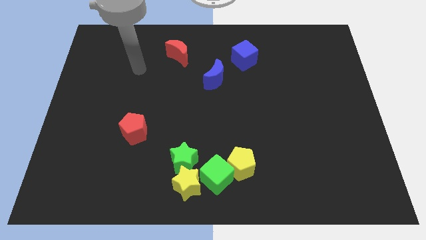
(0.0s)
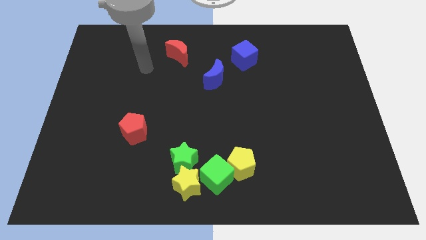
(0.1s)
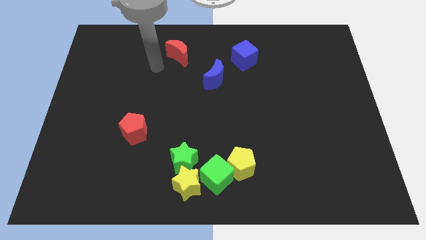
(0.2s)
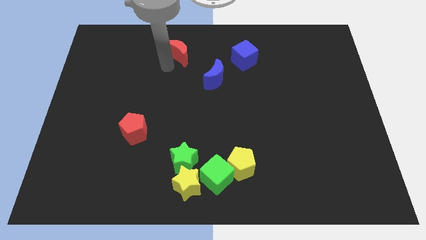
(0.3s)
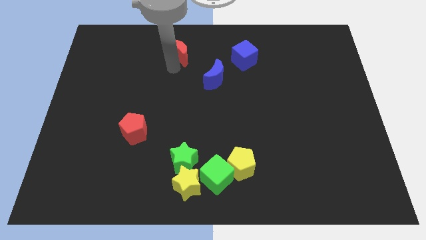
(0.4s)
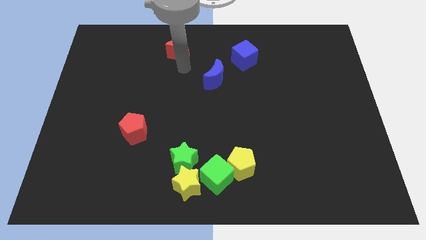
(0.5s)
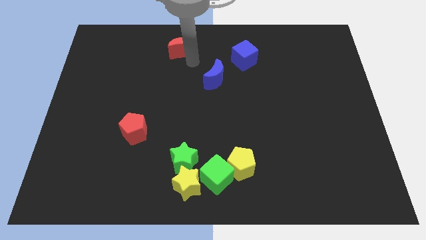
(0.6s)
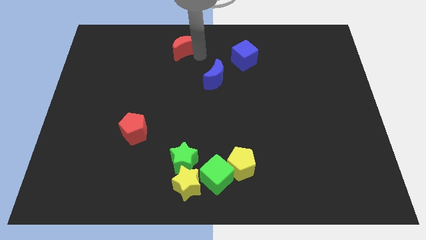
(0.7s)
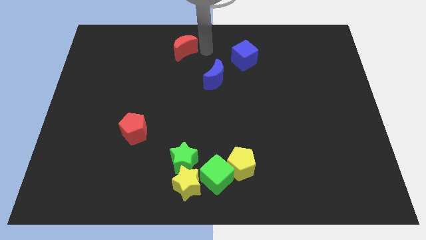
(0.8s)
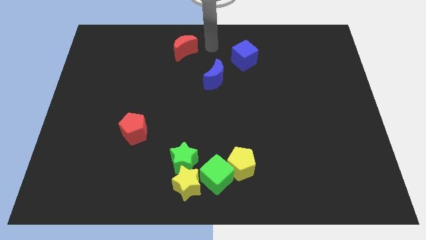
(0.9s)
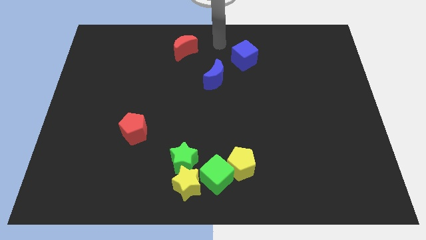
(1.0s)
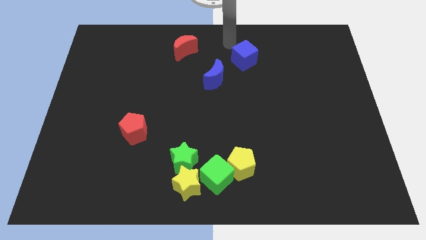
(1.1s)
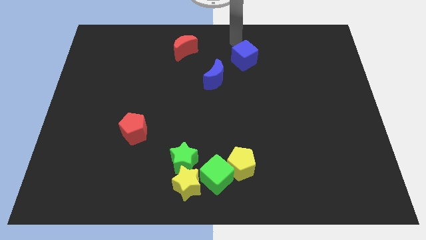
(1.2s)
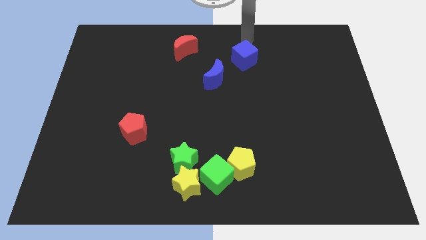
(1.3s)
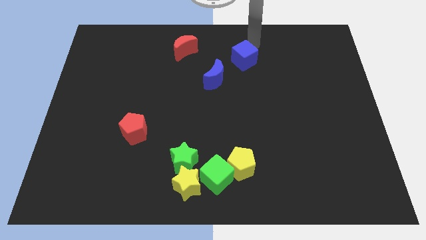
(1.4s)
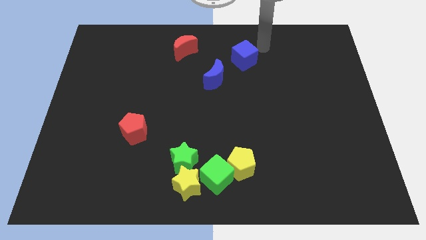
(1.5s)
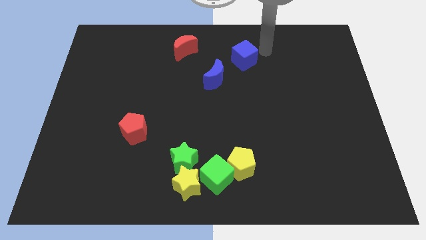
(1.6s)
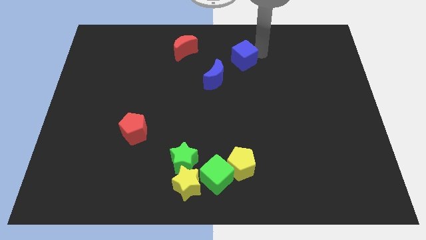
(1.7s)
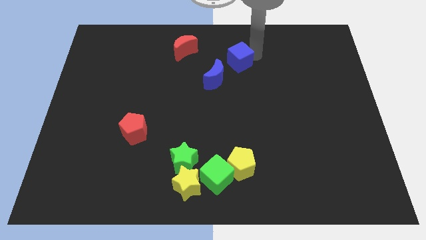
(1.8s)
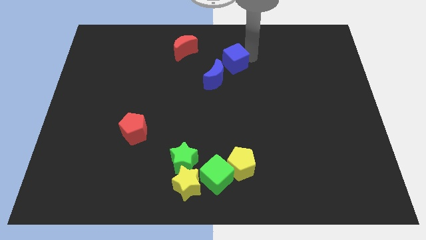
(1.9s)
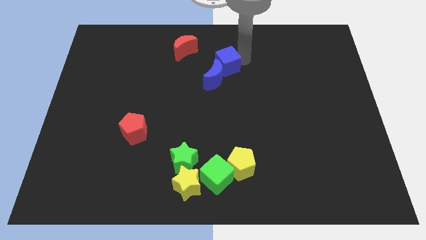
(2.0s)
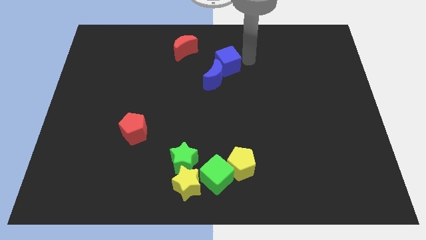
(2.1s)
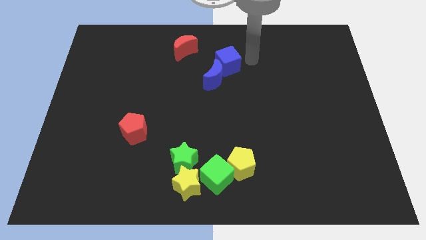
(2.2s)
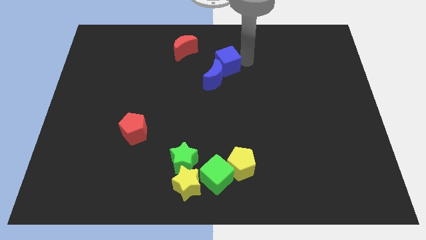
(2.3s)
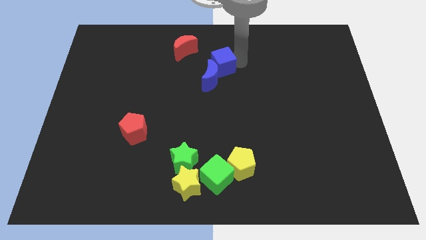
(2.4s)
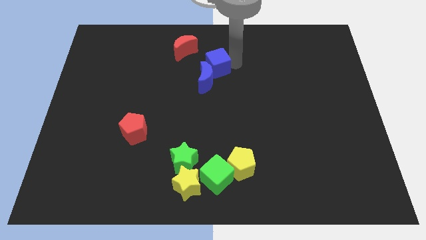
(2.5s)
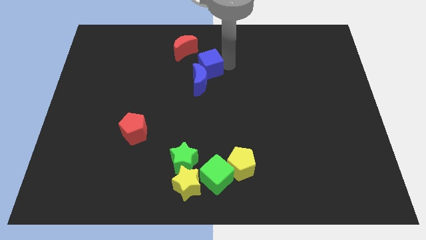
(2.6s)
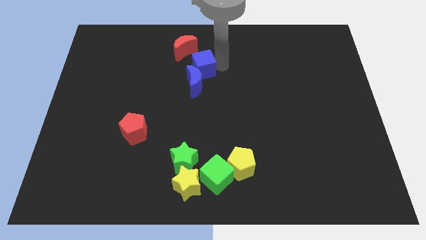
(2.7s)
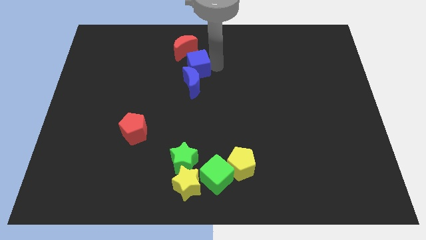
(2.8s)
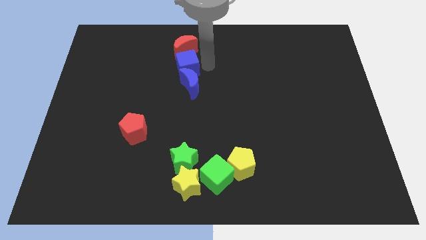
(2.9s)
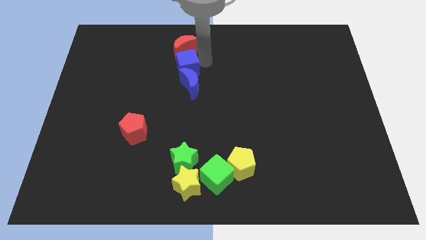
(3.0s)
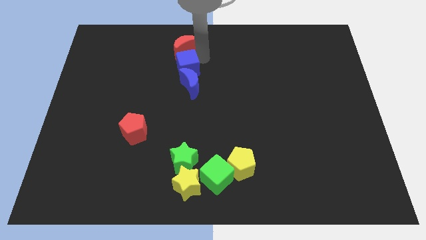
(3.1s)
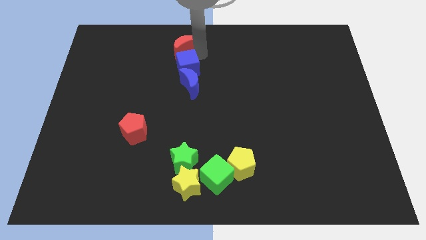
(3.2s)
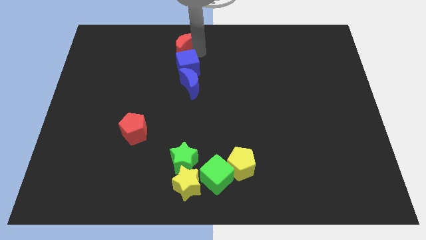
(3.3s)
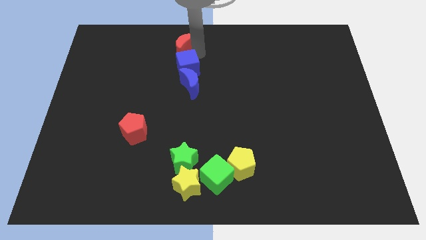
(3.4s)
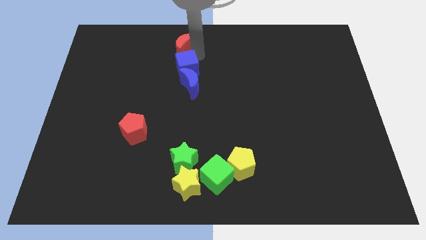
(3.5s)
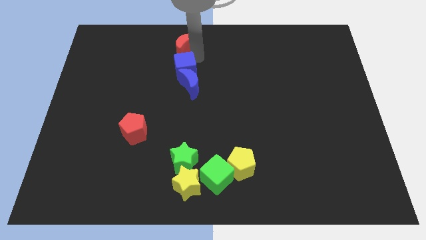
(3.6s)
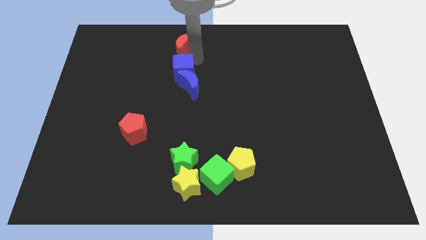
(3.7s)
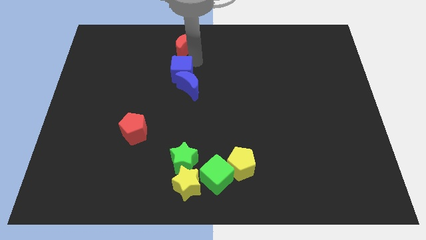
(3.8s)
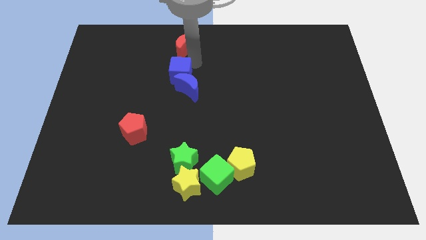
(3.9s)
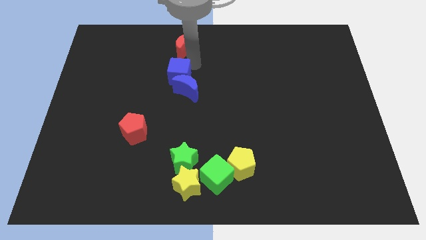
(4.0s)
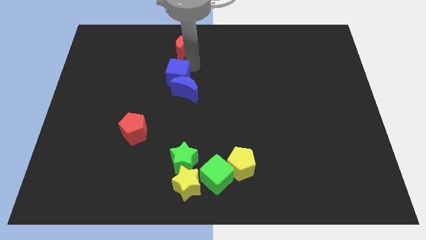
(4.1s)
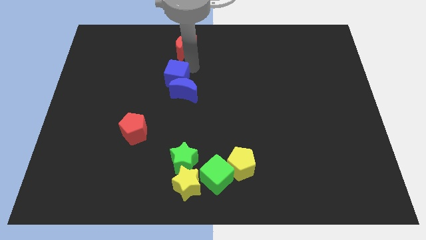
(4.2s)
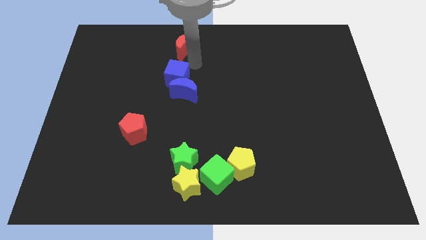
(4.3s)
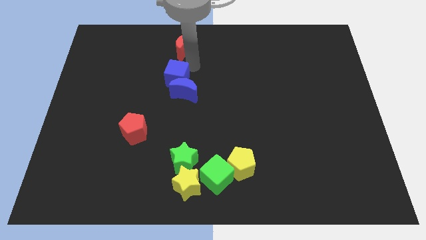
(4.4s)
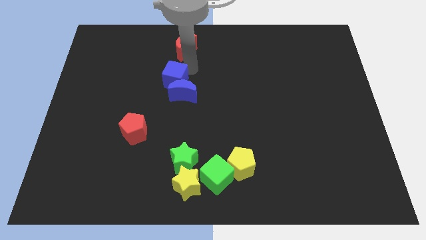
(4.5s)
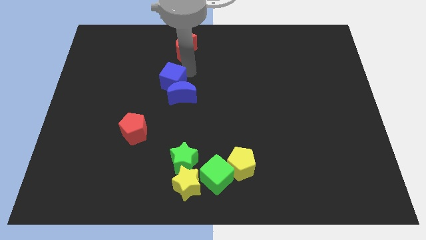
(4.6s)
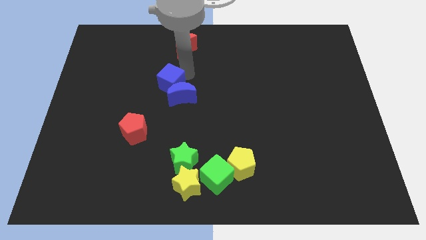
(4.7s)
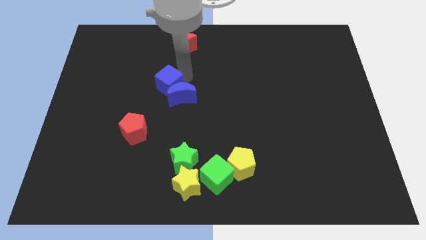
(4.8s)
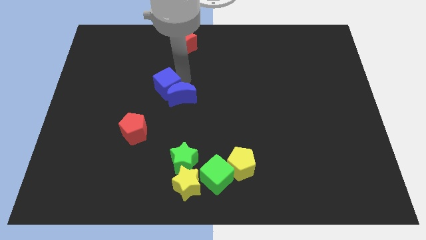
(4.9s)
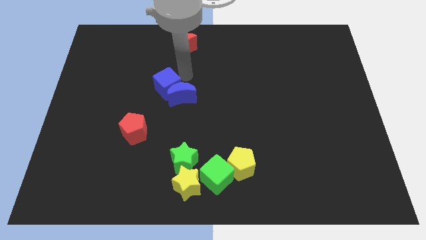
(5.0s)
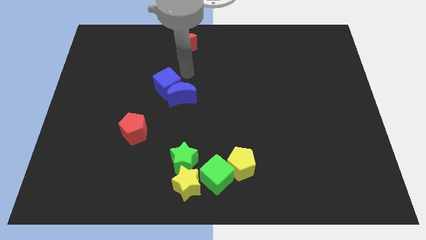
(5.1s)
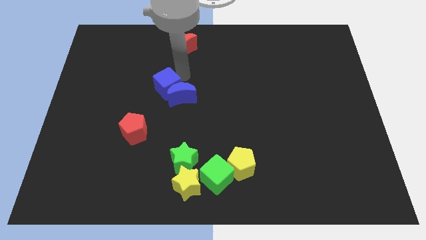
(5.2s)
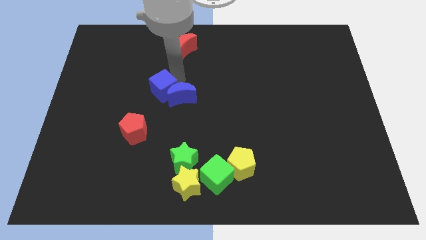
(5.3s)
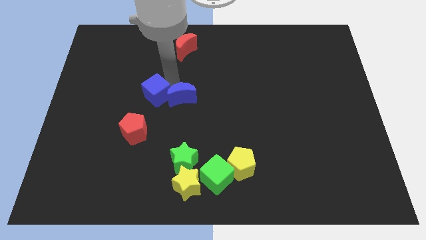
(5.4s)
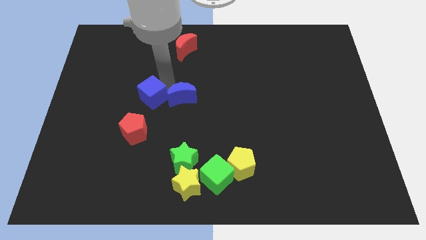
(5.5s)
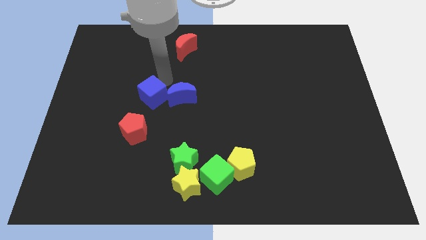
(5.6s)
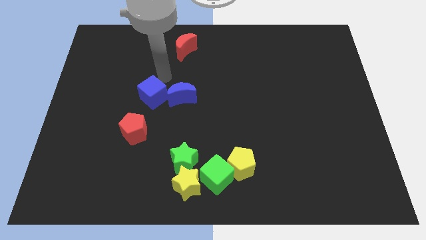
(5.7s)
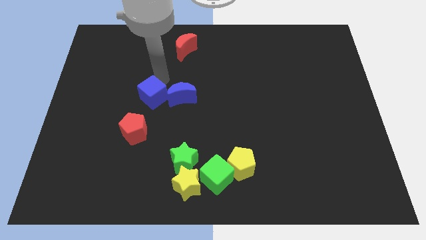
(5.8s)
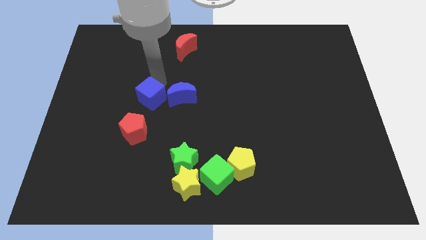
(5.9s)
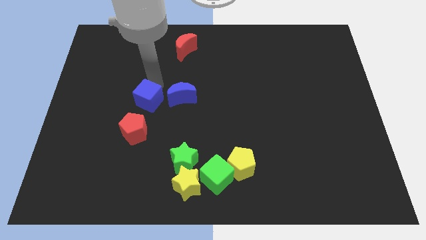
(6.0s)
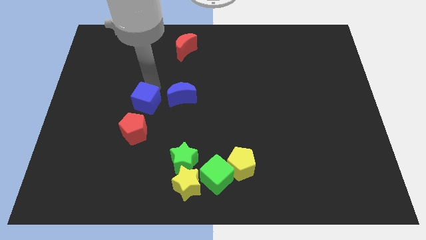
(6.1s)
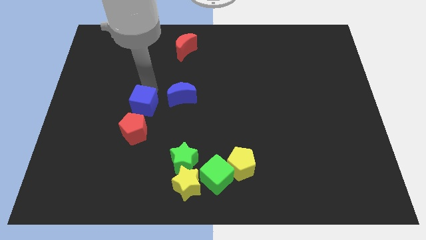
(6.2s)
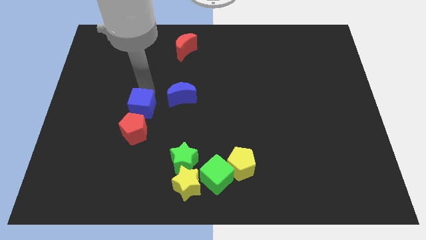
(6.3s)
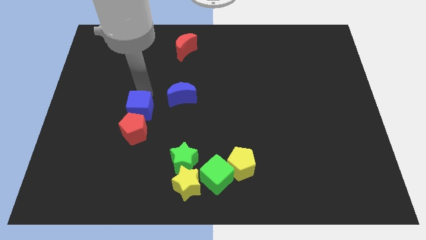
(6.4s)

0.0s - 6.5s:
move the blue cube close to the red pentagon

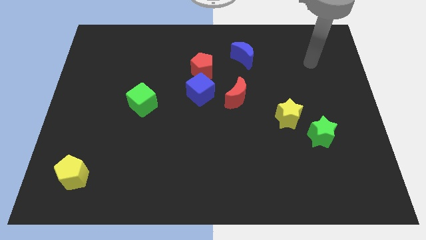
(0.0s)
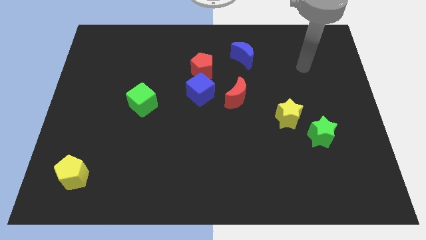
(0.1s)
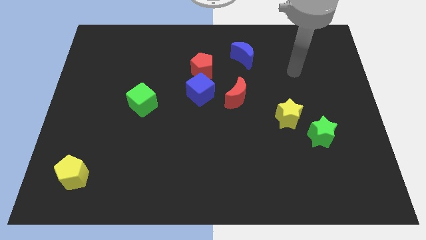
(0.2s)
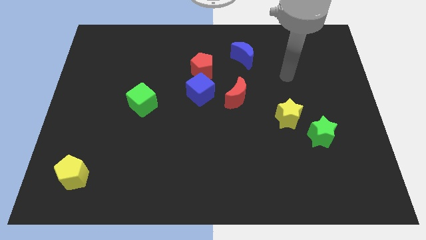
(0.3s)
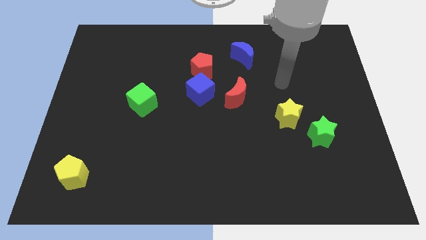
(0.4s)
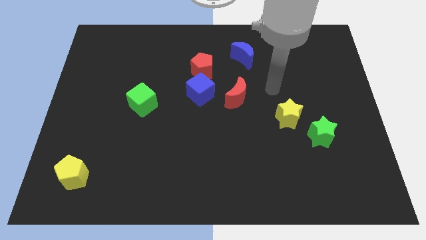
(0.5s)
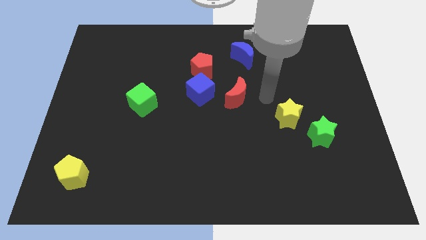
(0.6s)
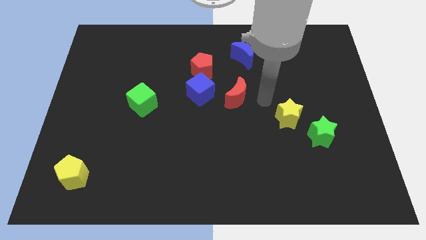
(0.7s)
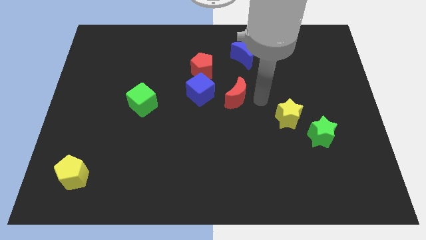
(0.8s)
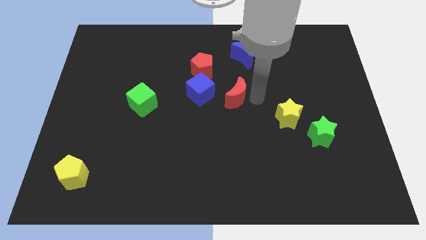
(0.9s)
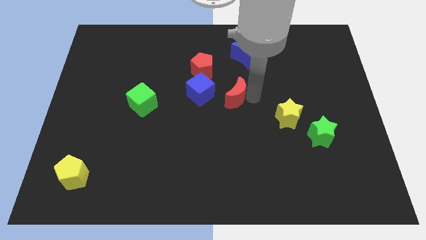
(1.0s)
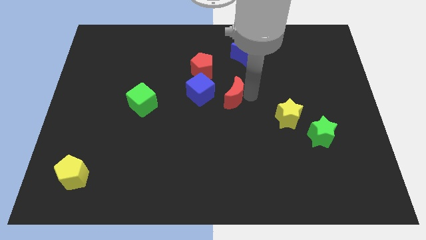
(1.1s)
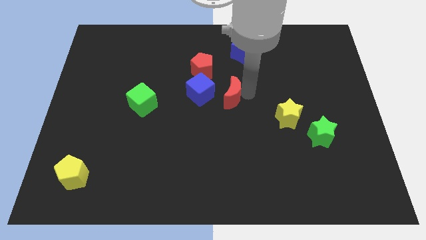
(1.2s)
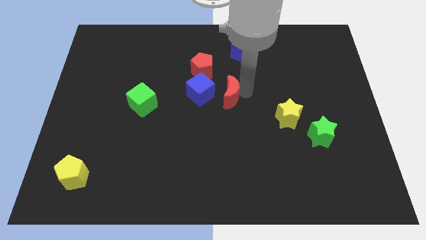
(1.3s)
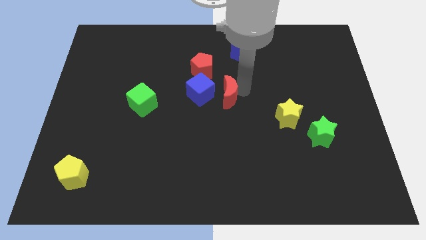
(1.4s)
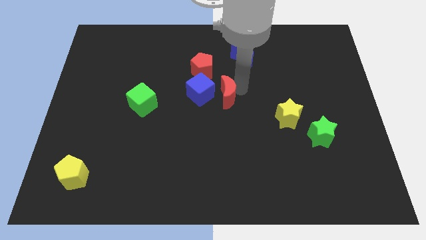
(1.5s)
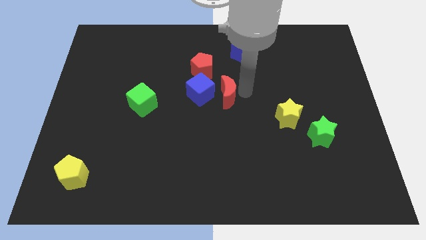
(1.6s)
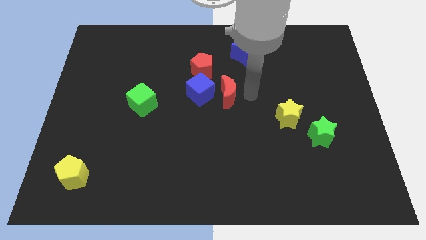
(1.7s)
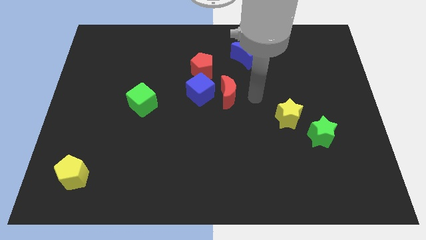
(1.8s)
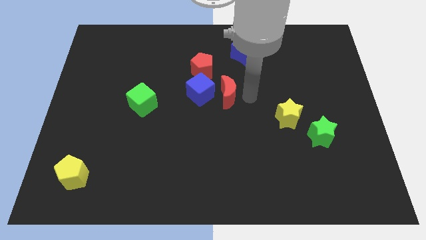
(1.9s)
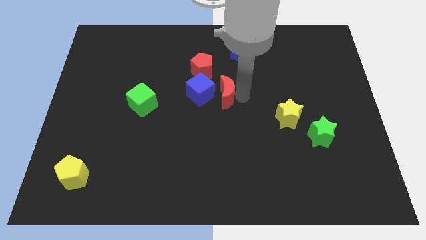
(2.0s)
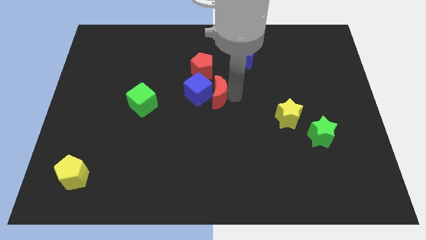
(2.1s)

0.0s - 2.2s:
slide the red moon to the blue cube

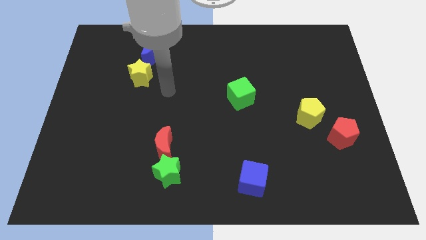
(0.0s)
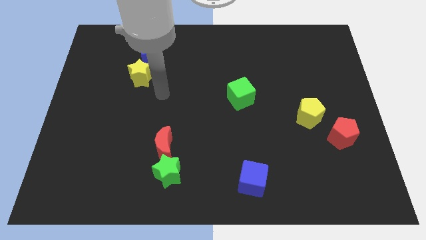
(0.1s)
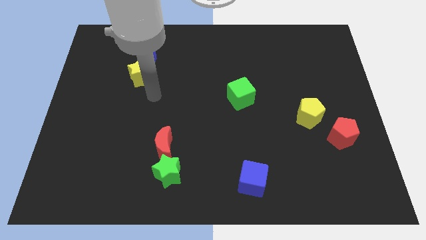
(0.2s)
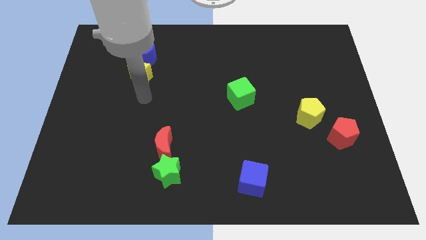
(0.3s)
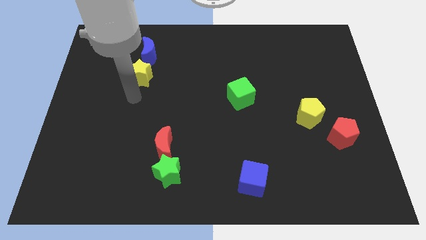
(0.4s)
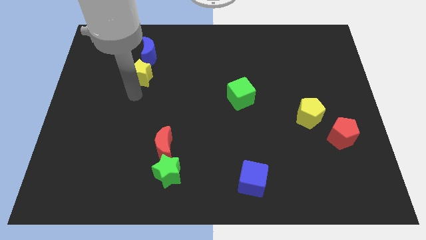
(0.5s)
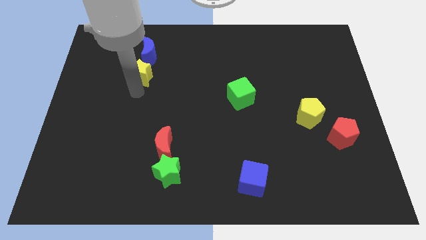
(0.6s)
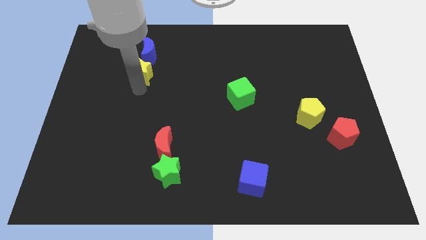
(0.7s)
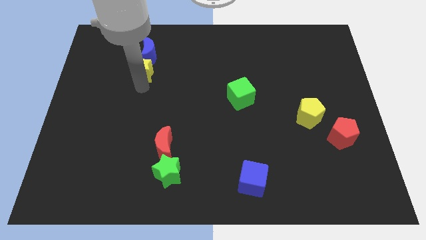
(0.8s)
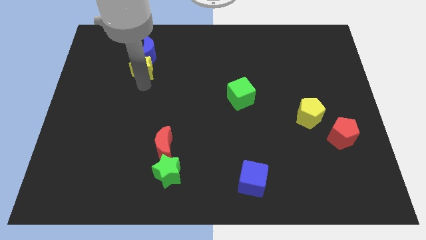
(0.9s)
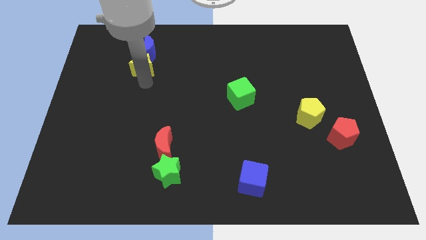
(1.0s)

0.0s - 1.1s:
move the yellow star towards the blue moon
